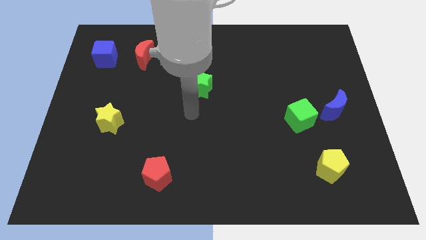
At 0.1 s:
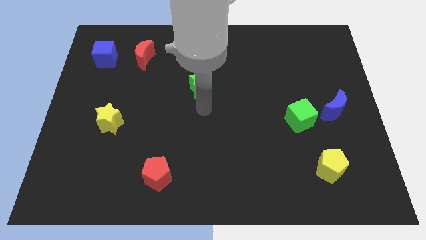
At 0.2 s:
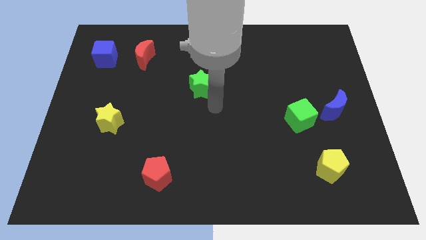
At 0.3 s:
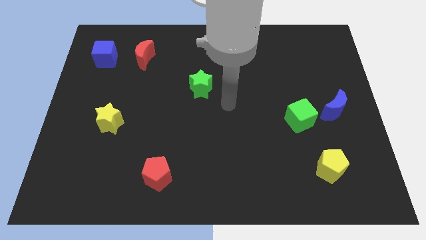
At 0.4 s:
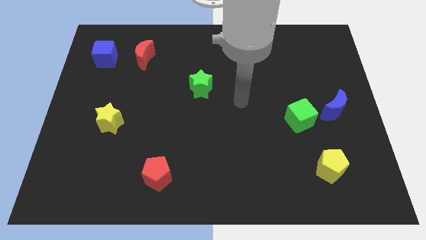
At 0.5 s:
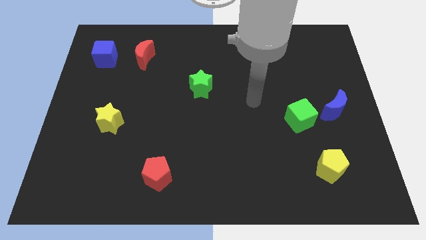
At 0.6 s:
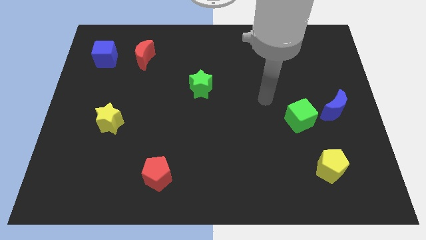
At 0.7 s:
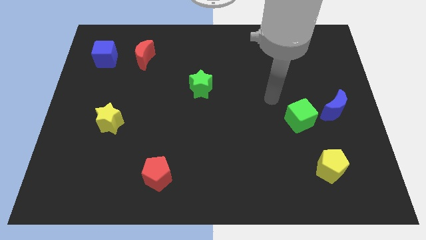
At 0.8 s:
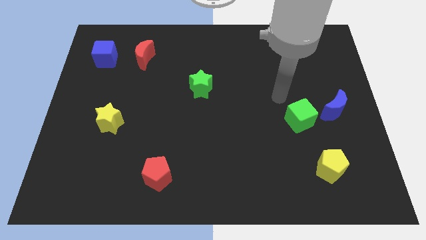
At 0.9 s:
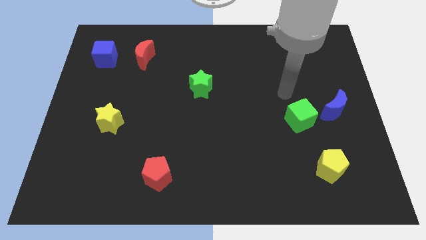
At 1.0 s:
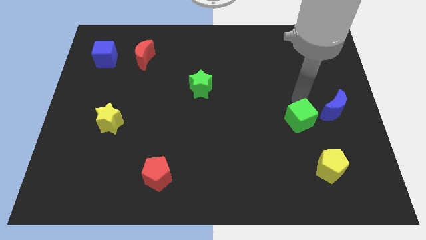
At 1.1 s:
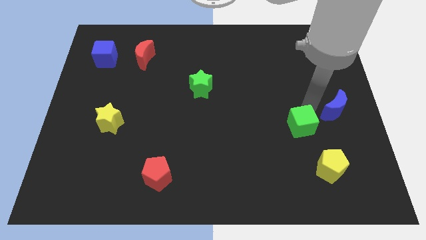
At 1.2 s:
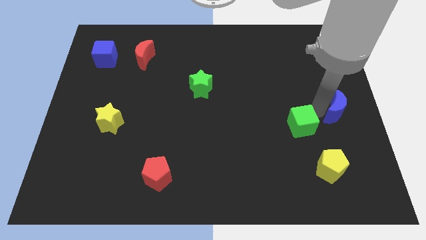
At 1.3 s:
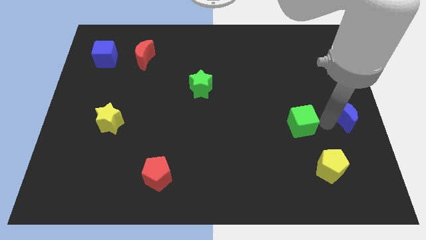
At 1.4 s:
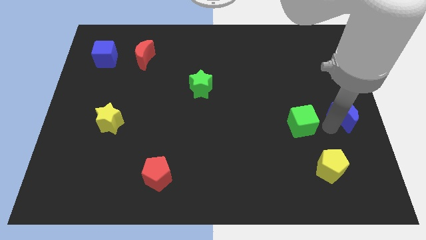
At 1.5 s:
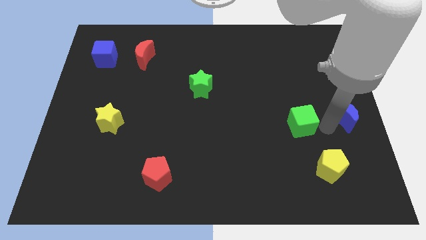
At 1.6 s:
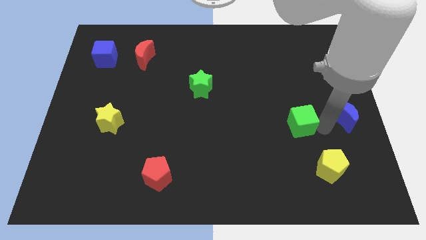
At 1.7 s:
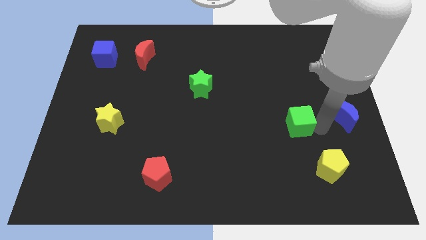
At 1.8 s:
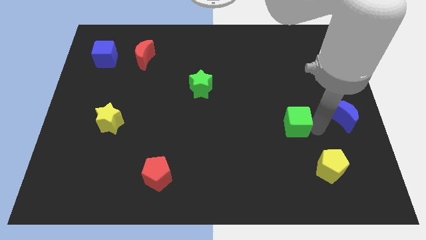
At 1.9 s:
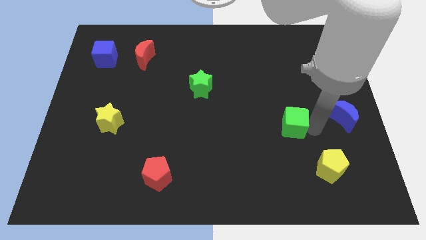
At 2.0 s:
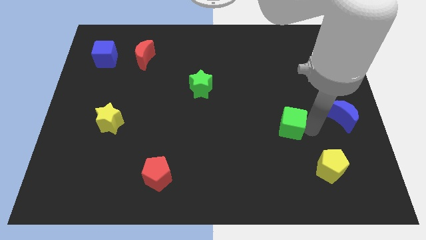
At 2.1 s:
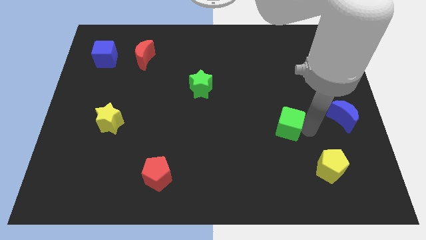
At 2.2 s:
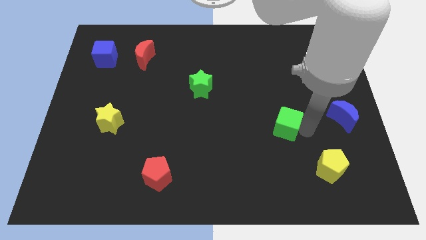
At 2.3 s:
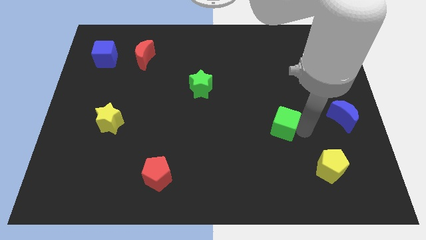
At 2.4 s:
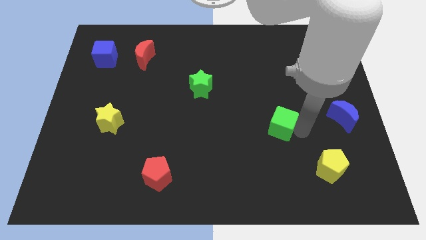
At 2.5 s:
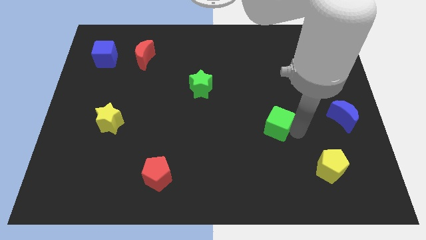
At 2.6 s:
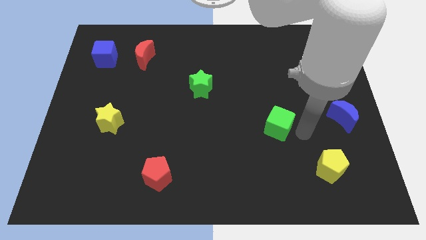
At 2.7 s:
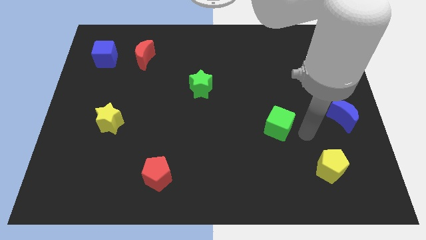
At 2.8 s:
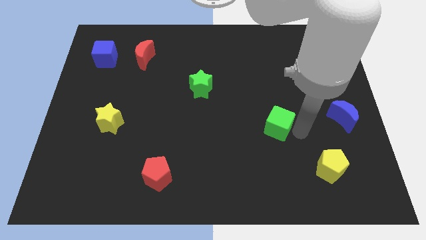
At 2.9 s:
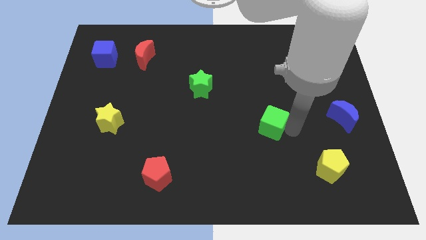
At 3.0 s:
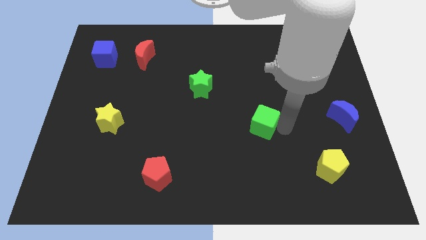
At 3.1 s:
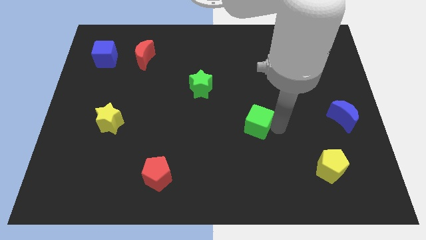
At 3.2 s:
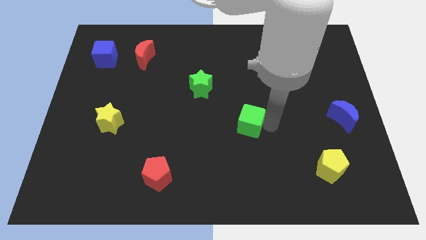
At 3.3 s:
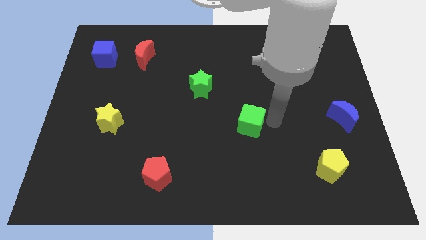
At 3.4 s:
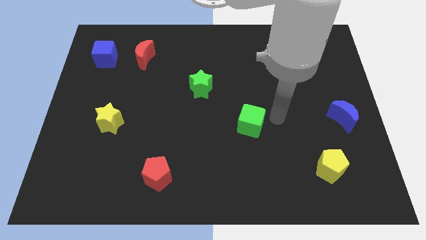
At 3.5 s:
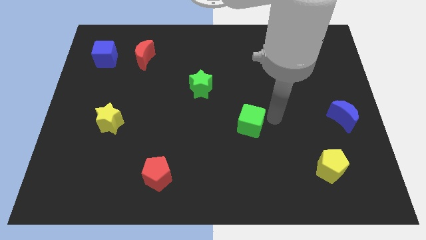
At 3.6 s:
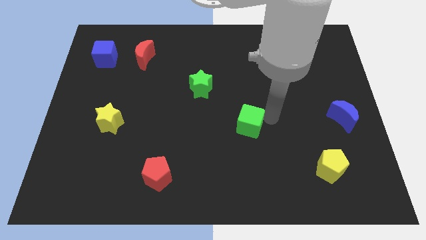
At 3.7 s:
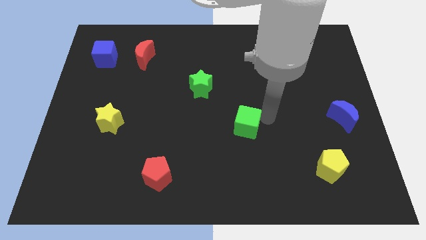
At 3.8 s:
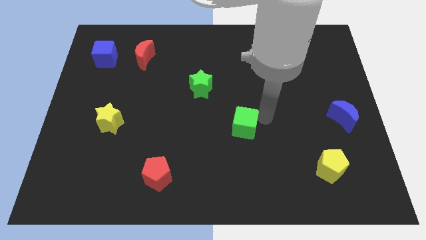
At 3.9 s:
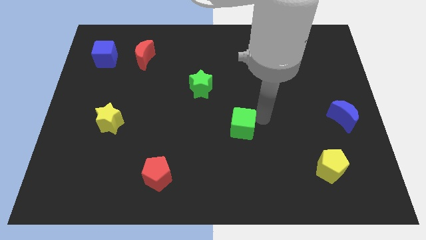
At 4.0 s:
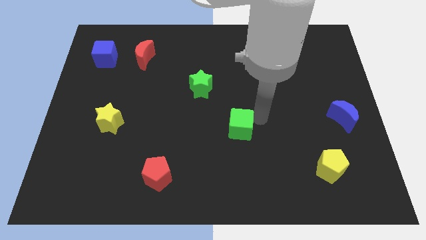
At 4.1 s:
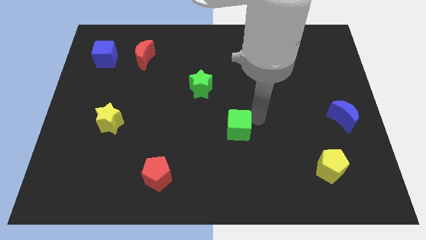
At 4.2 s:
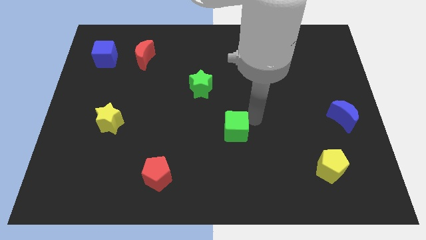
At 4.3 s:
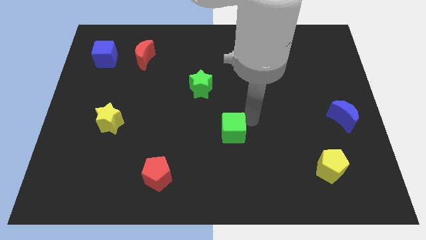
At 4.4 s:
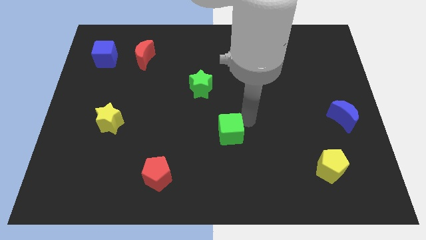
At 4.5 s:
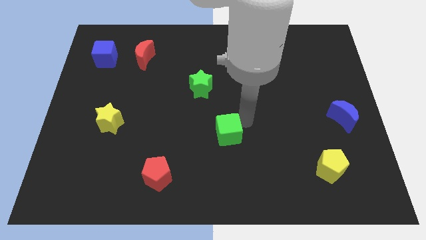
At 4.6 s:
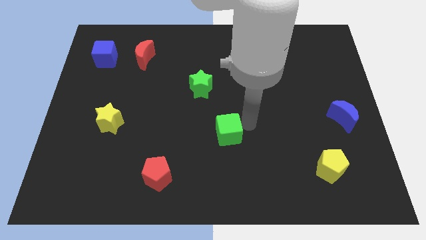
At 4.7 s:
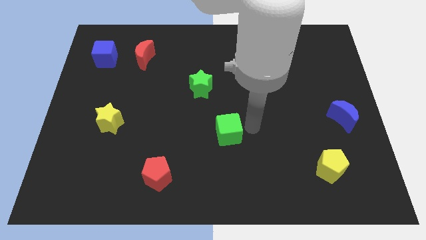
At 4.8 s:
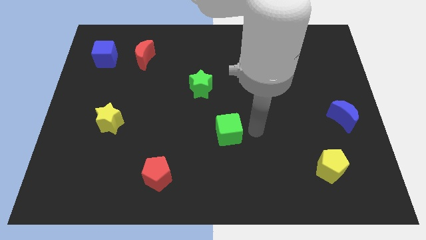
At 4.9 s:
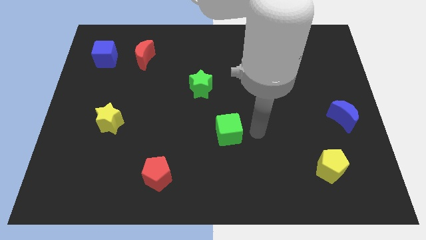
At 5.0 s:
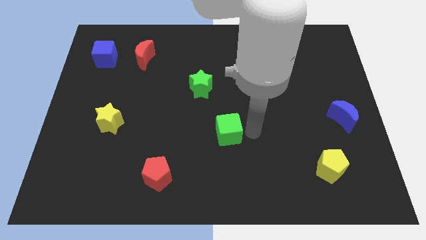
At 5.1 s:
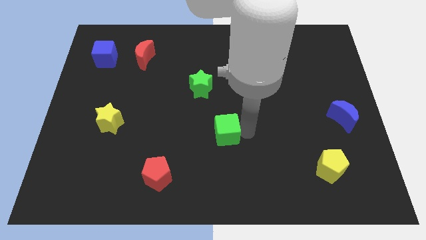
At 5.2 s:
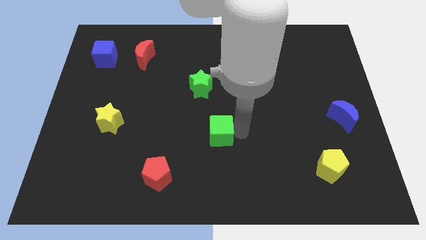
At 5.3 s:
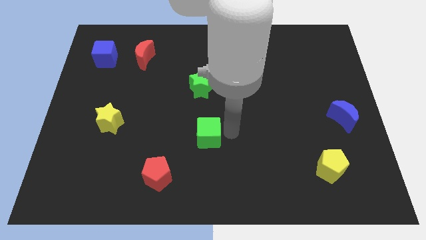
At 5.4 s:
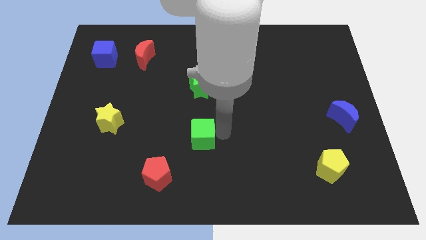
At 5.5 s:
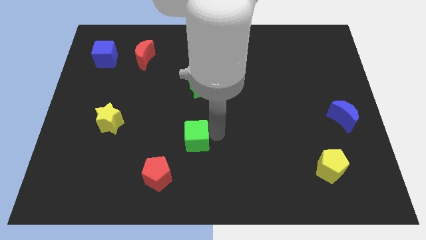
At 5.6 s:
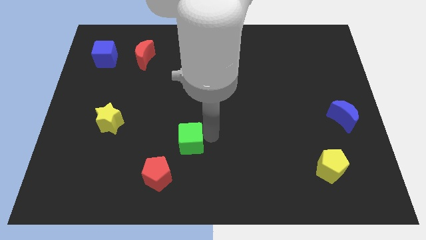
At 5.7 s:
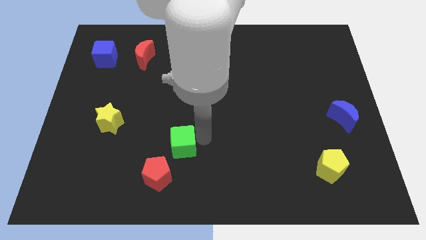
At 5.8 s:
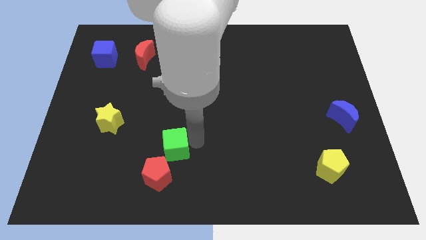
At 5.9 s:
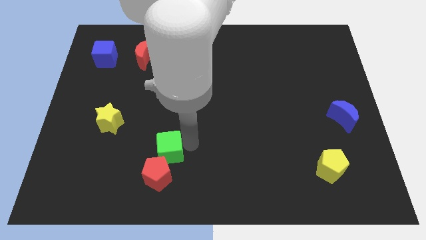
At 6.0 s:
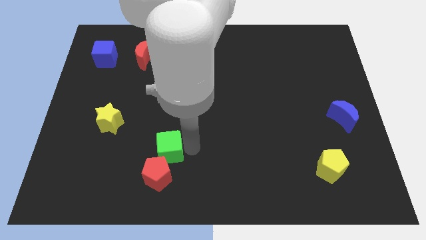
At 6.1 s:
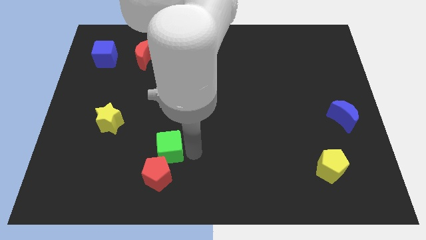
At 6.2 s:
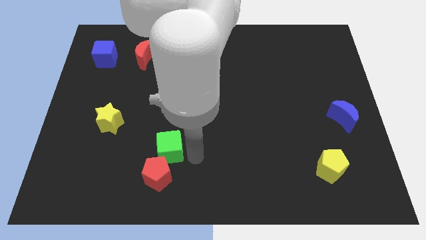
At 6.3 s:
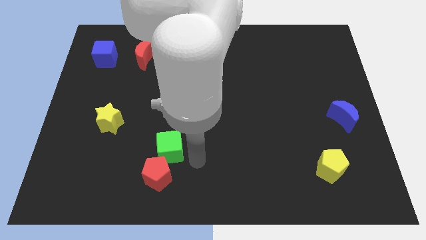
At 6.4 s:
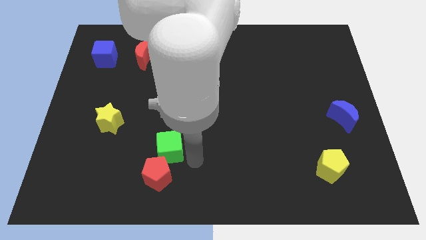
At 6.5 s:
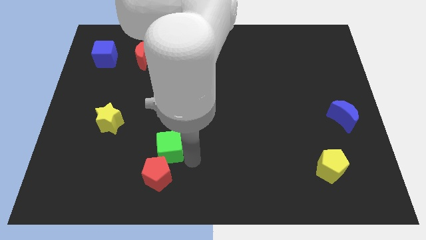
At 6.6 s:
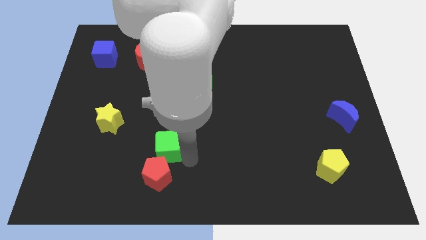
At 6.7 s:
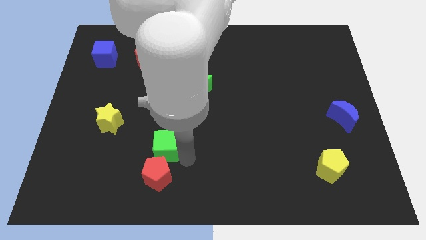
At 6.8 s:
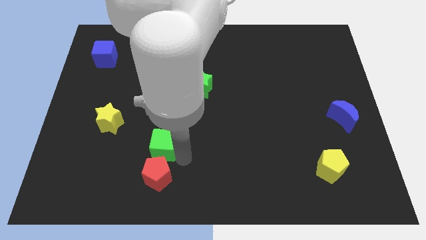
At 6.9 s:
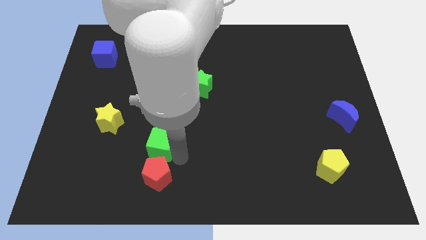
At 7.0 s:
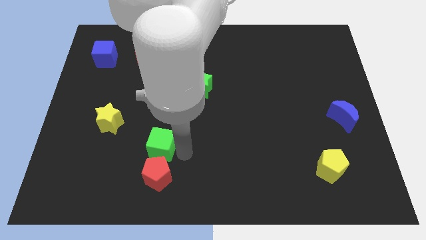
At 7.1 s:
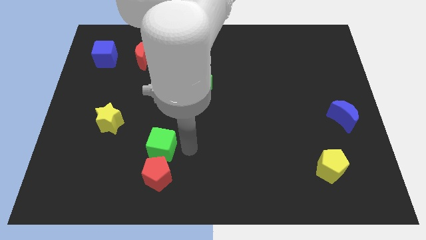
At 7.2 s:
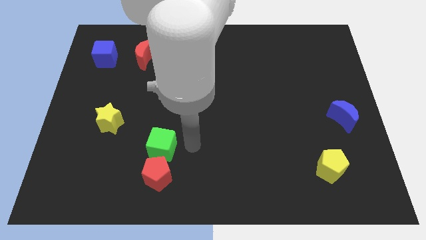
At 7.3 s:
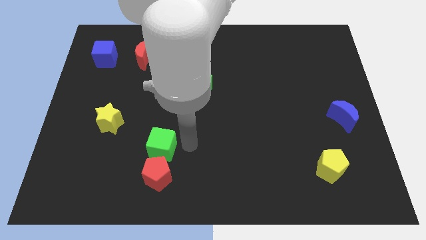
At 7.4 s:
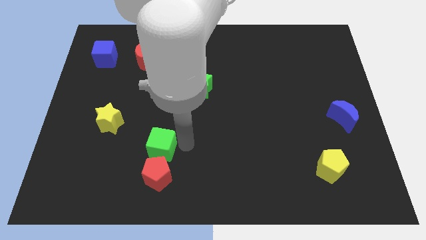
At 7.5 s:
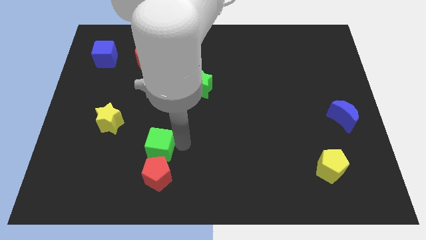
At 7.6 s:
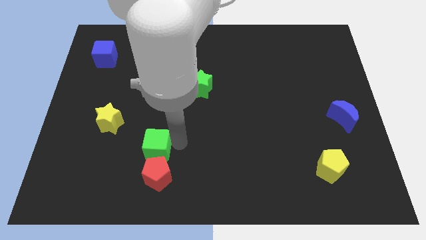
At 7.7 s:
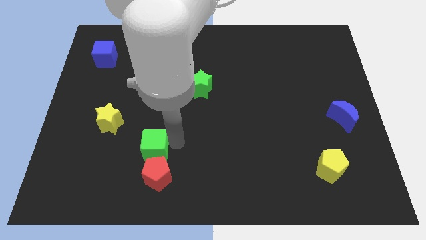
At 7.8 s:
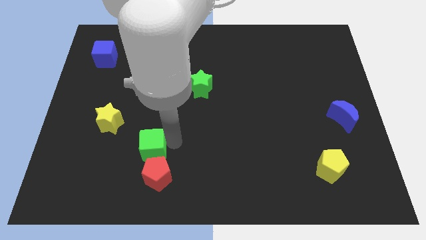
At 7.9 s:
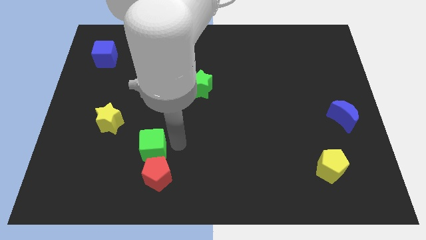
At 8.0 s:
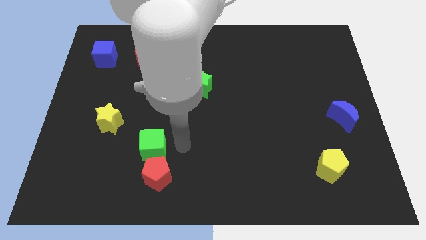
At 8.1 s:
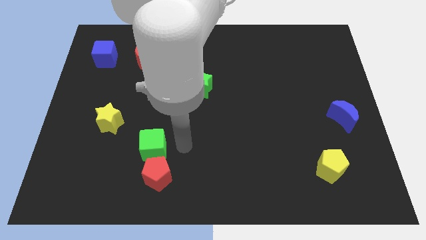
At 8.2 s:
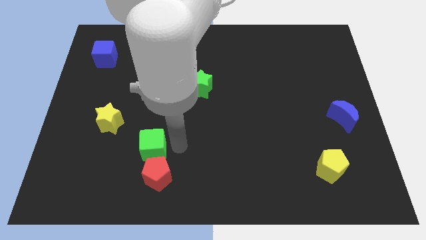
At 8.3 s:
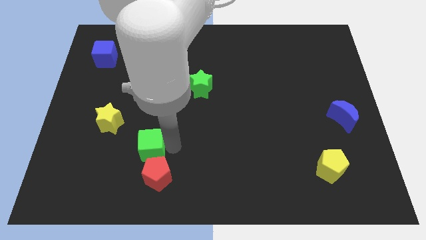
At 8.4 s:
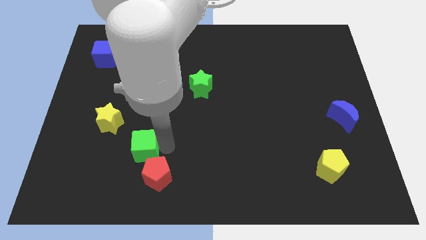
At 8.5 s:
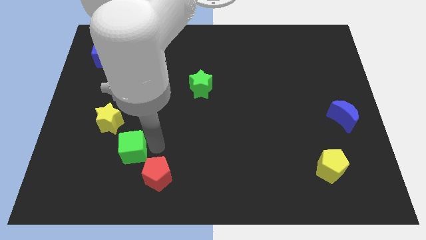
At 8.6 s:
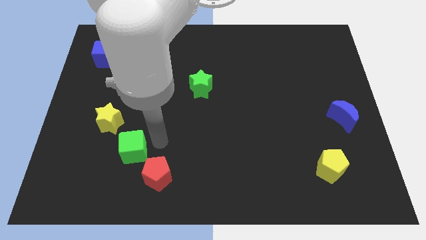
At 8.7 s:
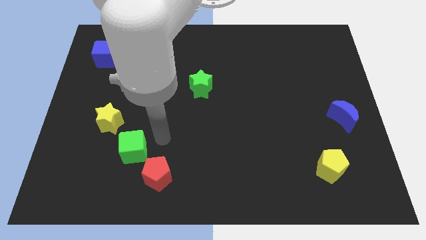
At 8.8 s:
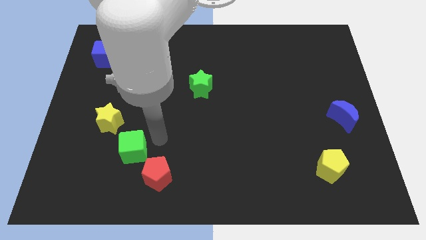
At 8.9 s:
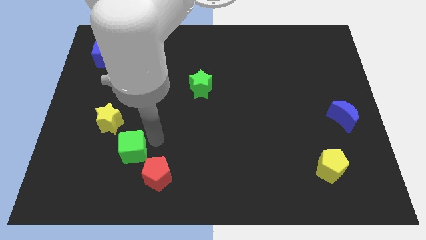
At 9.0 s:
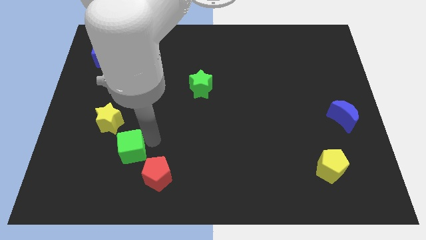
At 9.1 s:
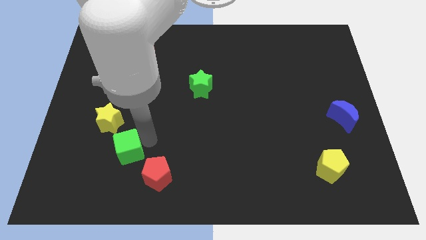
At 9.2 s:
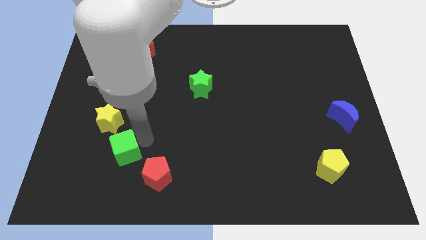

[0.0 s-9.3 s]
push the green cube to the bottom of the yellow star
